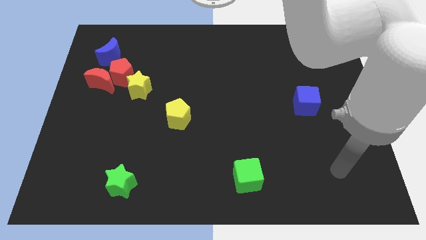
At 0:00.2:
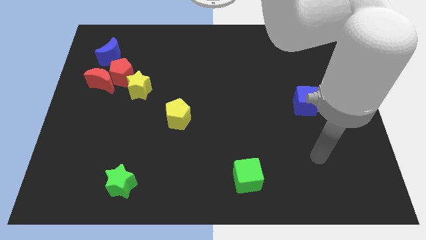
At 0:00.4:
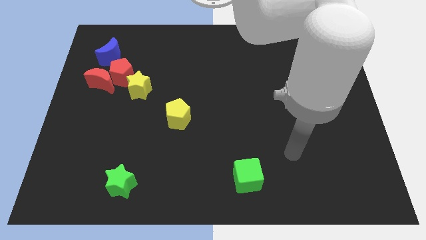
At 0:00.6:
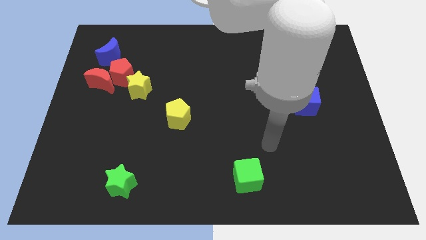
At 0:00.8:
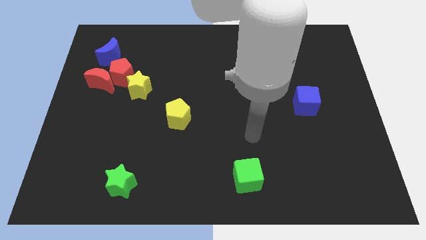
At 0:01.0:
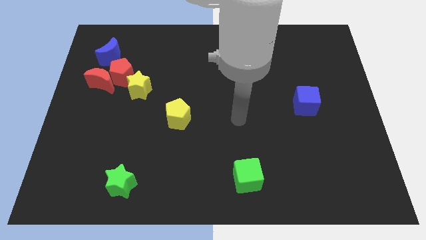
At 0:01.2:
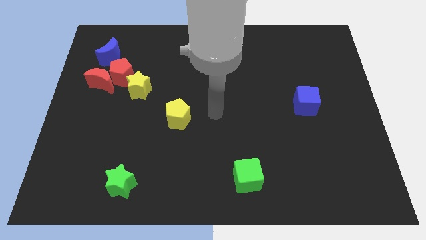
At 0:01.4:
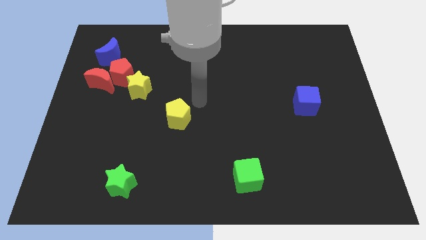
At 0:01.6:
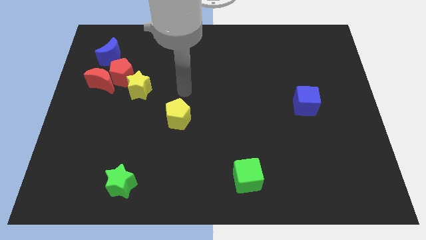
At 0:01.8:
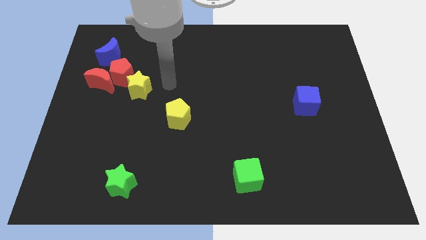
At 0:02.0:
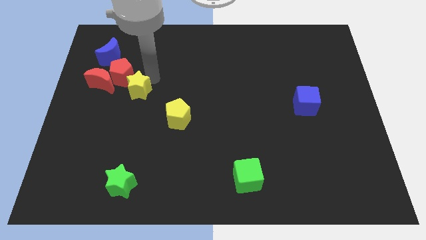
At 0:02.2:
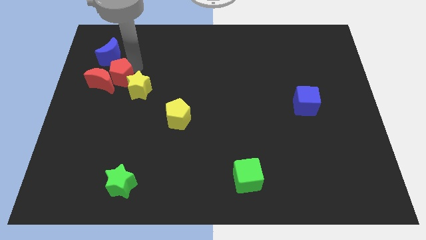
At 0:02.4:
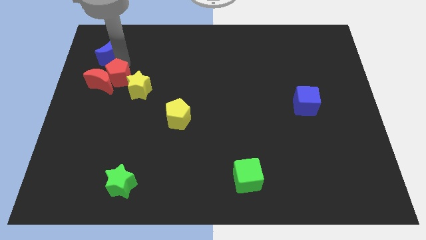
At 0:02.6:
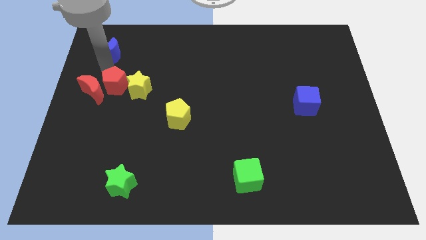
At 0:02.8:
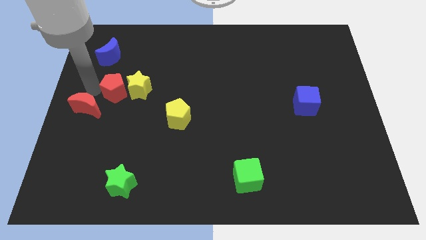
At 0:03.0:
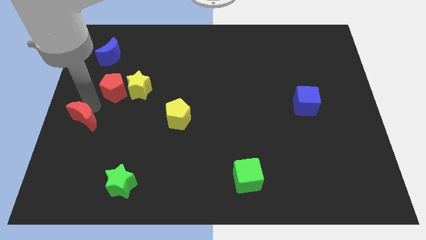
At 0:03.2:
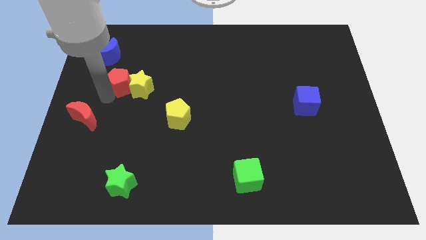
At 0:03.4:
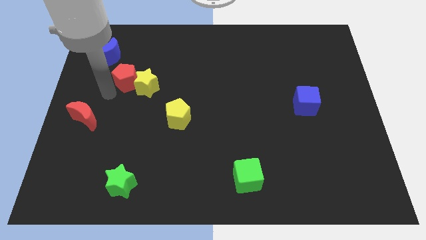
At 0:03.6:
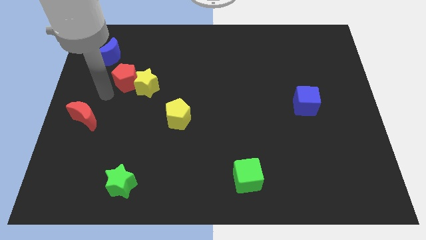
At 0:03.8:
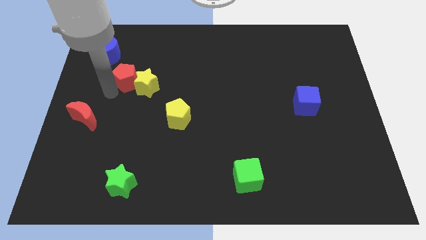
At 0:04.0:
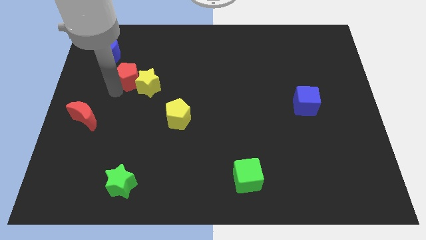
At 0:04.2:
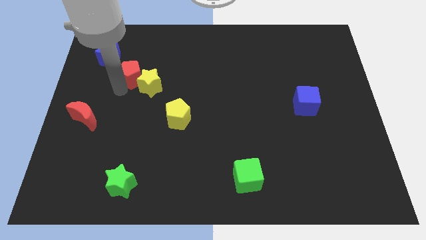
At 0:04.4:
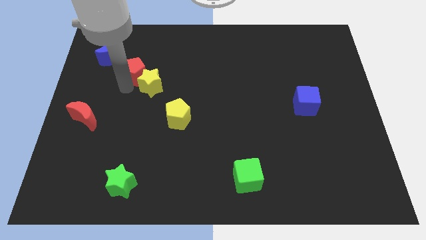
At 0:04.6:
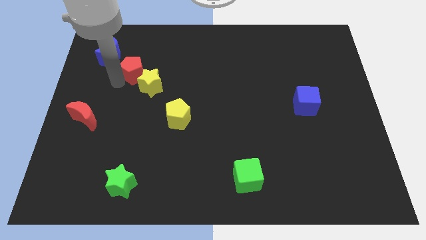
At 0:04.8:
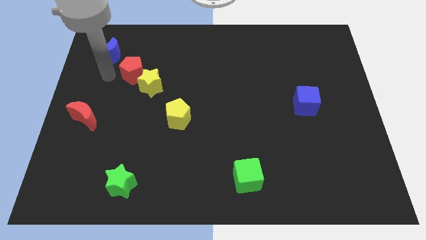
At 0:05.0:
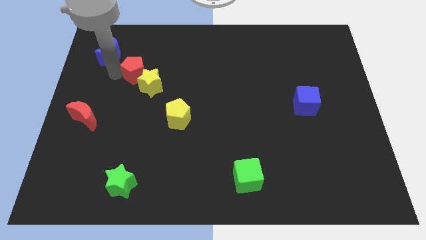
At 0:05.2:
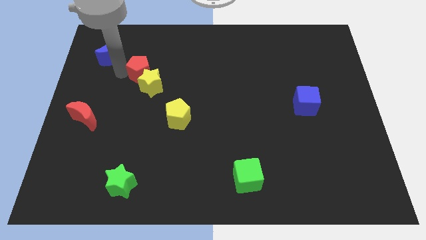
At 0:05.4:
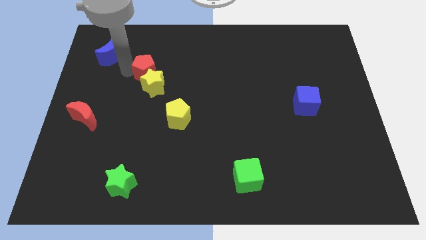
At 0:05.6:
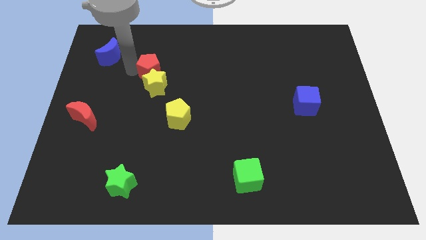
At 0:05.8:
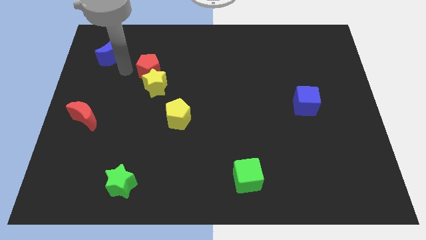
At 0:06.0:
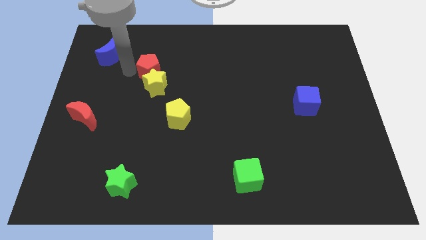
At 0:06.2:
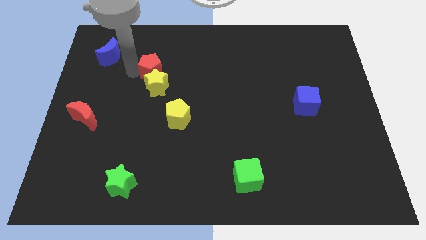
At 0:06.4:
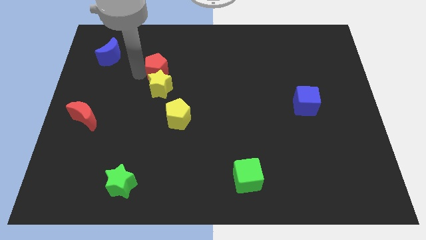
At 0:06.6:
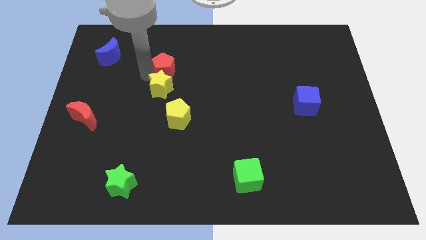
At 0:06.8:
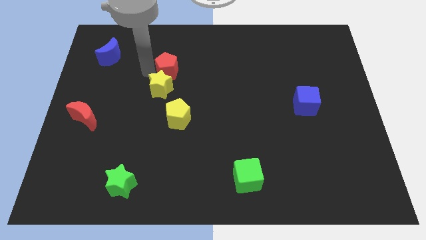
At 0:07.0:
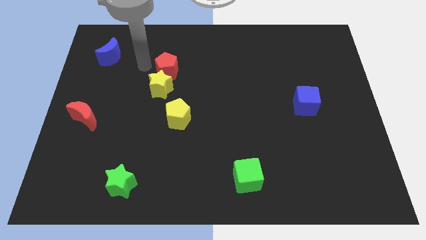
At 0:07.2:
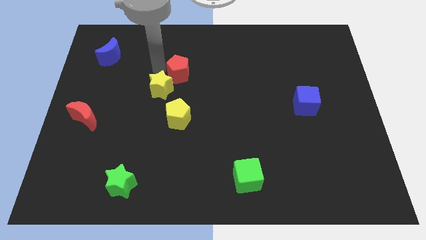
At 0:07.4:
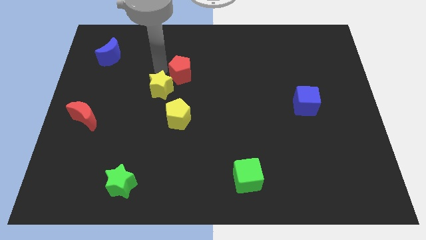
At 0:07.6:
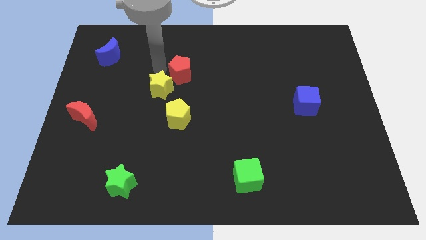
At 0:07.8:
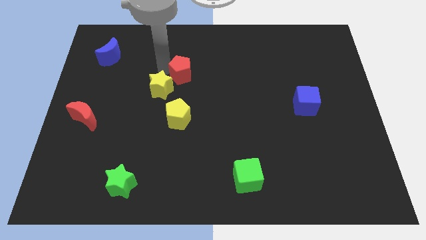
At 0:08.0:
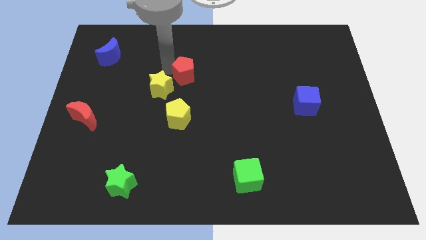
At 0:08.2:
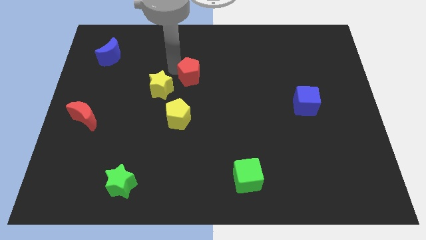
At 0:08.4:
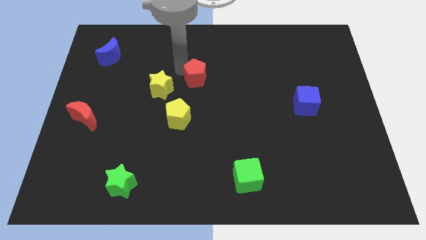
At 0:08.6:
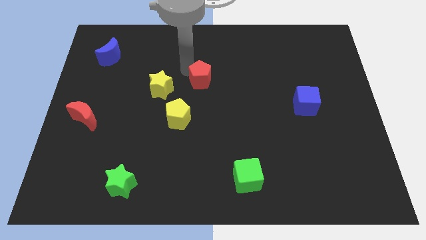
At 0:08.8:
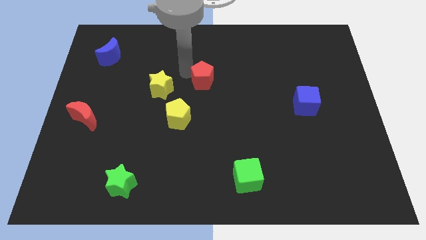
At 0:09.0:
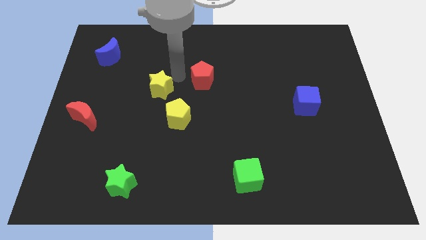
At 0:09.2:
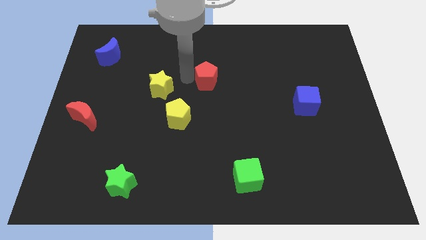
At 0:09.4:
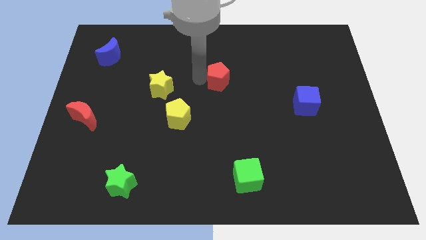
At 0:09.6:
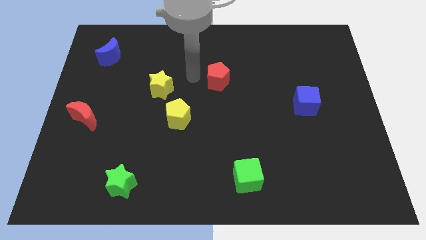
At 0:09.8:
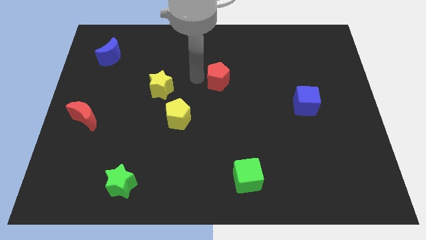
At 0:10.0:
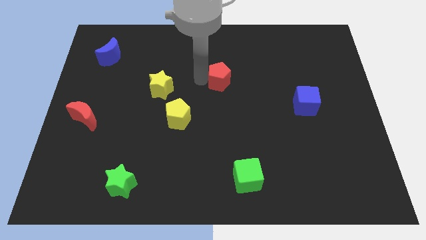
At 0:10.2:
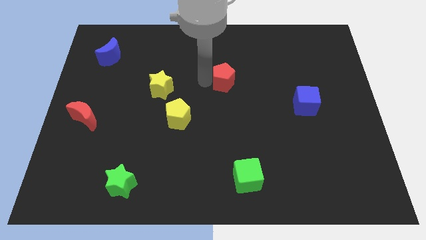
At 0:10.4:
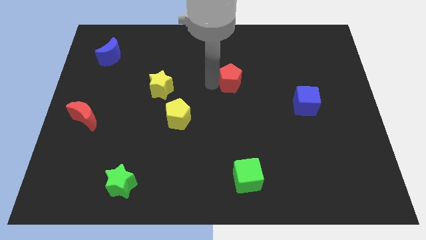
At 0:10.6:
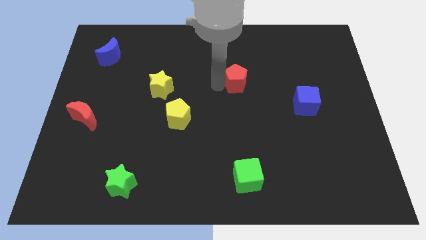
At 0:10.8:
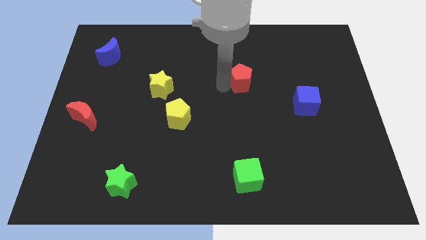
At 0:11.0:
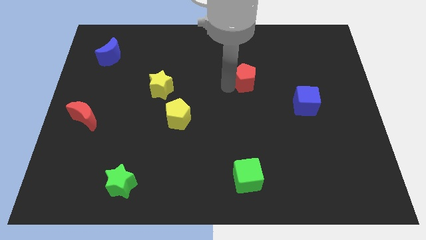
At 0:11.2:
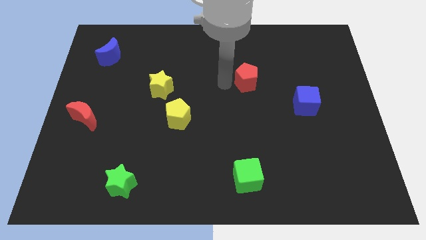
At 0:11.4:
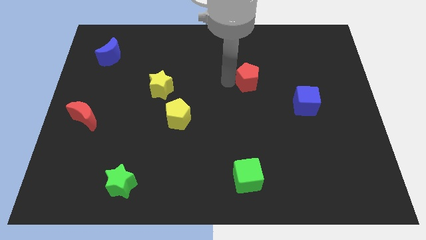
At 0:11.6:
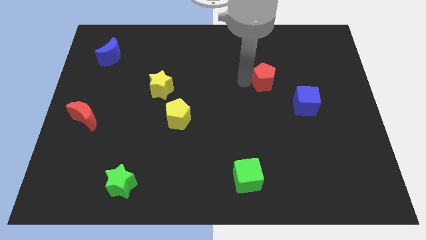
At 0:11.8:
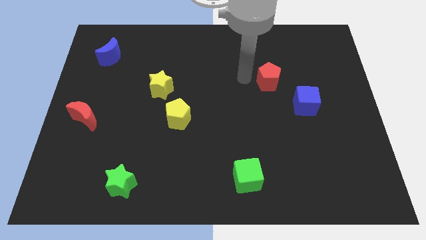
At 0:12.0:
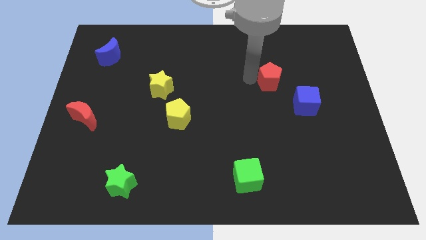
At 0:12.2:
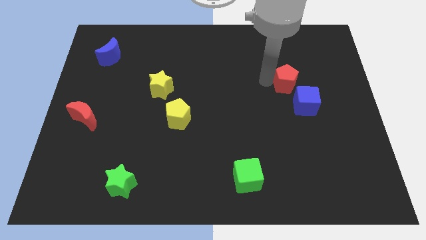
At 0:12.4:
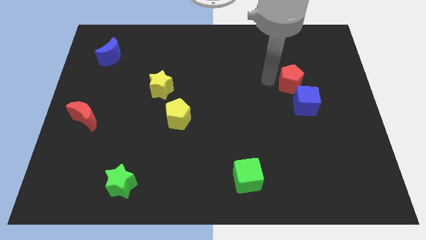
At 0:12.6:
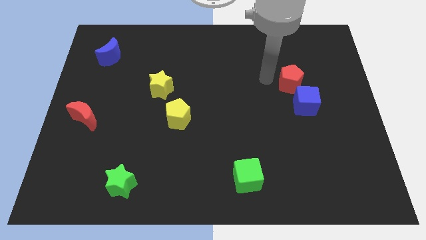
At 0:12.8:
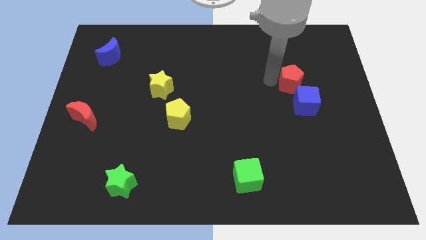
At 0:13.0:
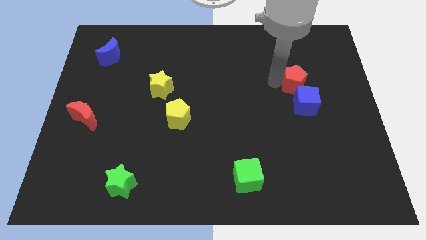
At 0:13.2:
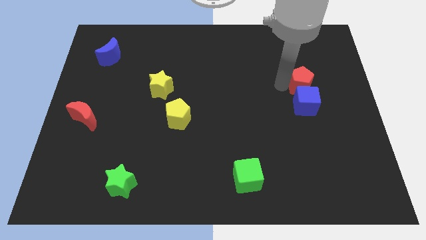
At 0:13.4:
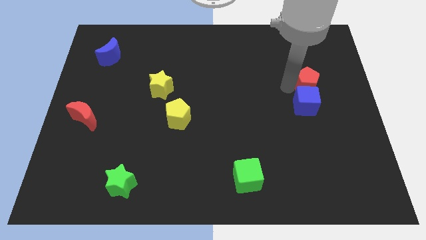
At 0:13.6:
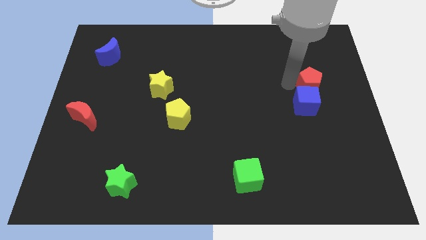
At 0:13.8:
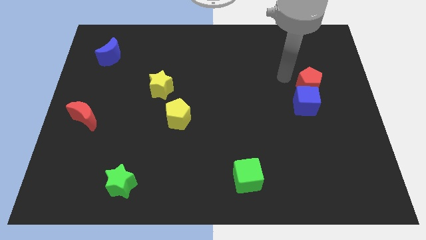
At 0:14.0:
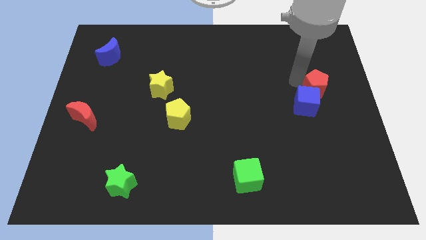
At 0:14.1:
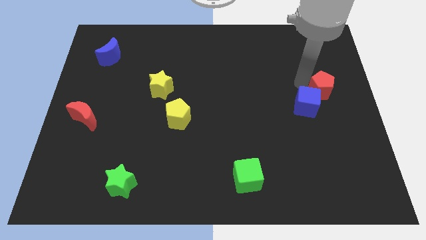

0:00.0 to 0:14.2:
put the red pentagon to the center right
